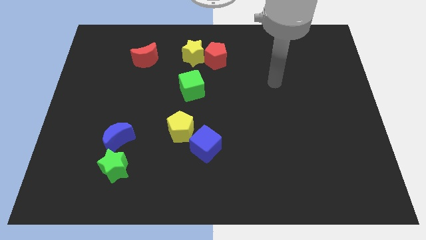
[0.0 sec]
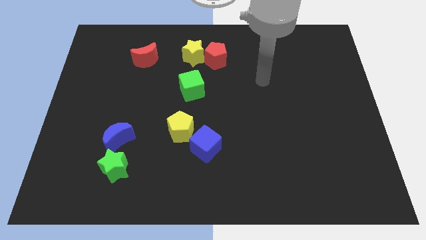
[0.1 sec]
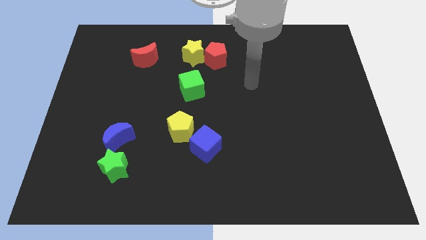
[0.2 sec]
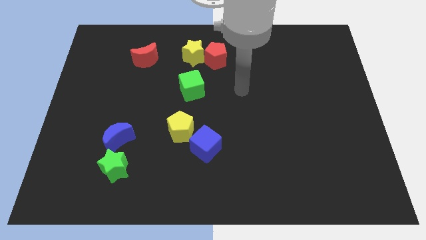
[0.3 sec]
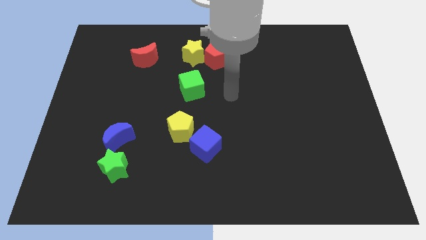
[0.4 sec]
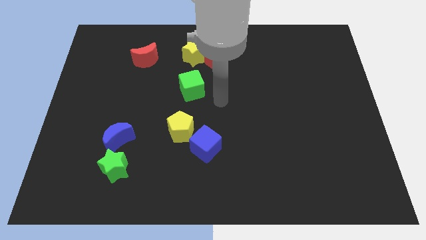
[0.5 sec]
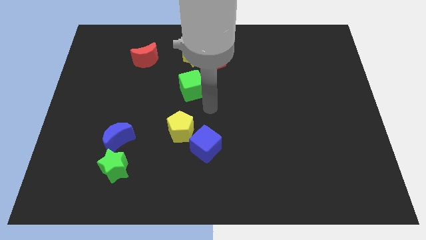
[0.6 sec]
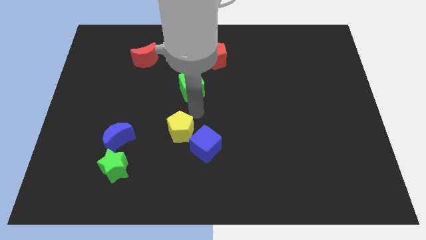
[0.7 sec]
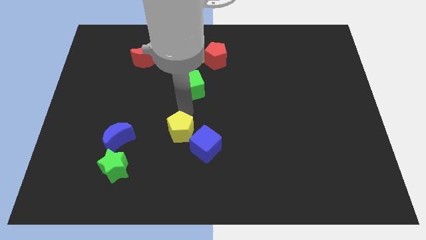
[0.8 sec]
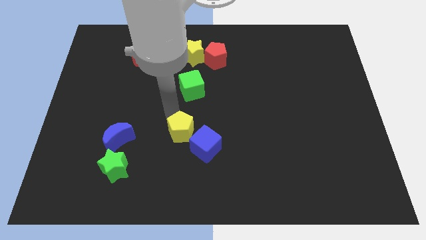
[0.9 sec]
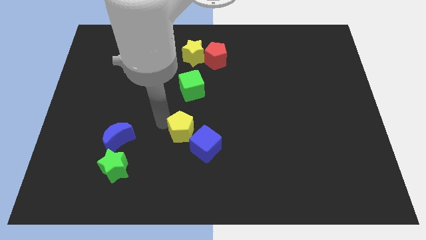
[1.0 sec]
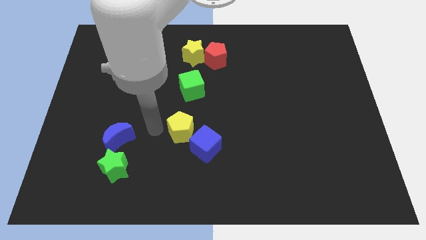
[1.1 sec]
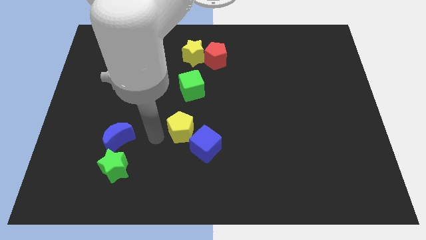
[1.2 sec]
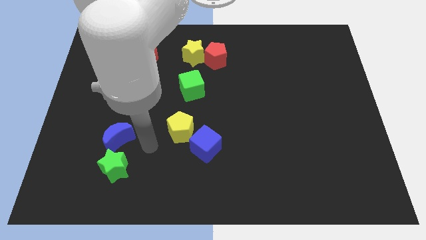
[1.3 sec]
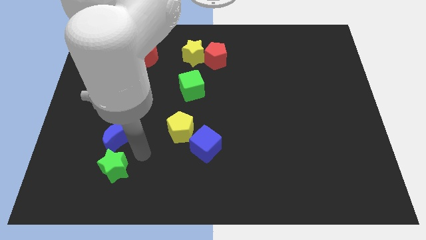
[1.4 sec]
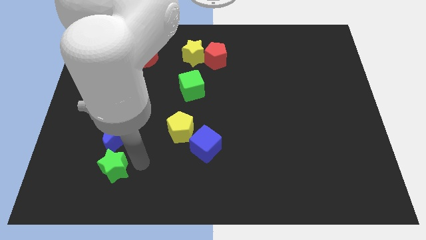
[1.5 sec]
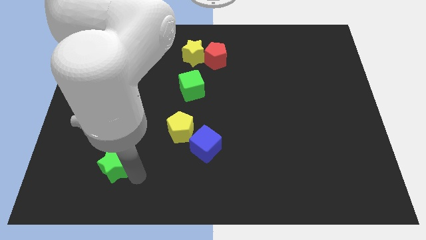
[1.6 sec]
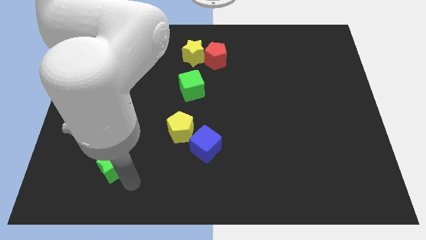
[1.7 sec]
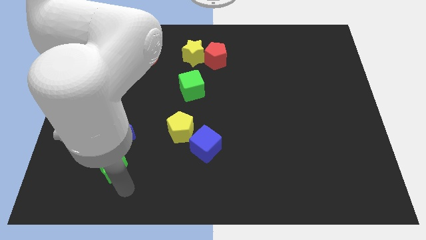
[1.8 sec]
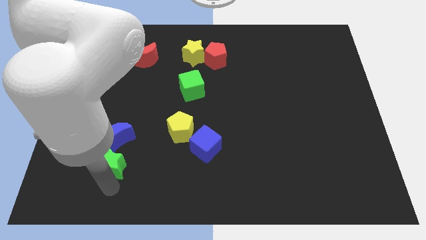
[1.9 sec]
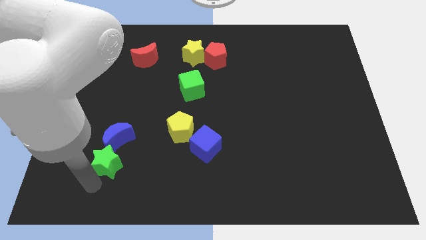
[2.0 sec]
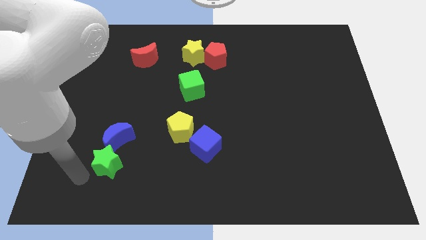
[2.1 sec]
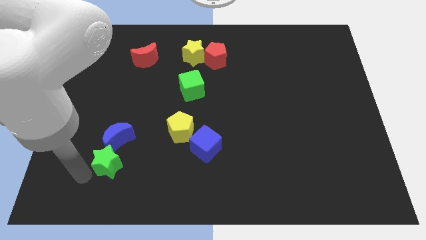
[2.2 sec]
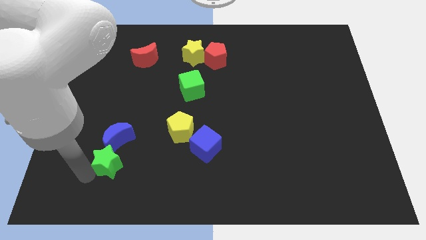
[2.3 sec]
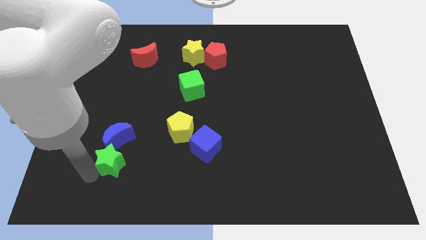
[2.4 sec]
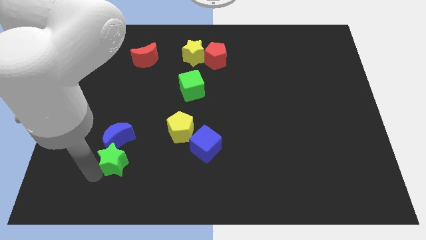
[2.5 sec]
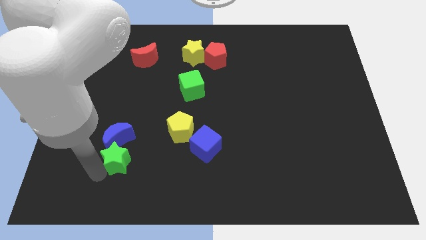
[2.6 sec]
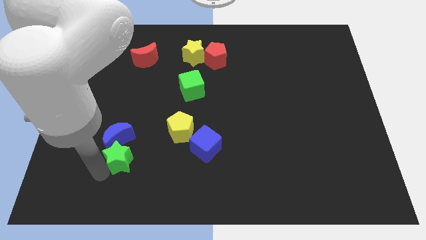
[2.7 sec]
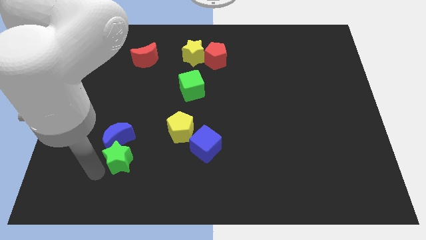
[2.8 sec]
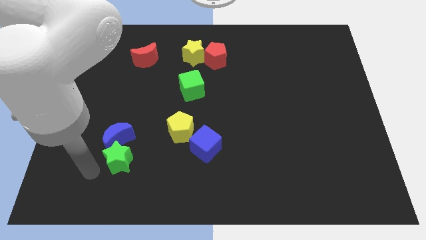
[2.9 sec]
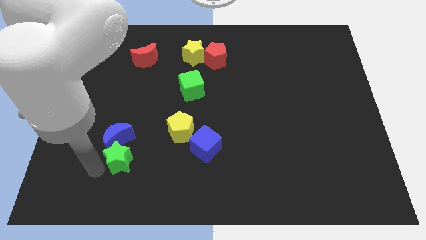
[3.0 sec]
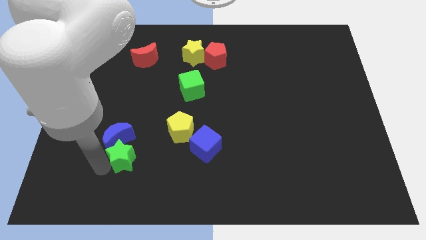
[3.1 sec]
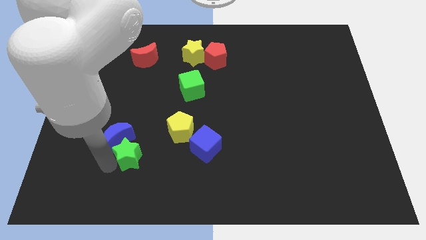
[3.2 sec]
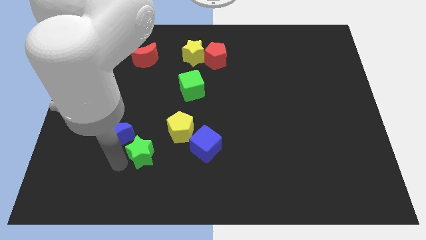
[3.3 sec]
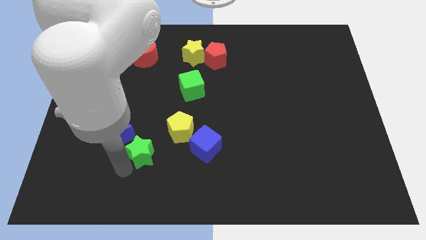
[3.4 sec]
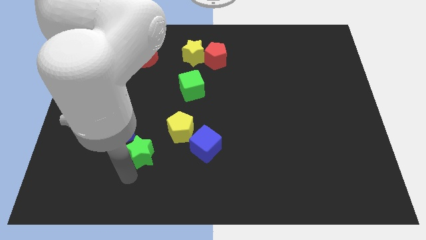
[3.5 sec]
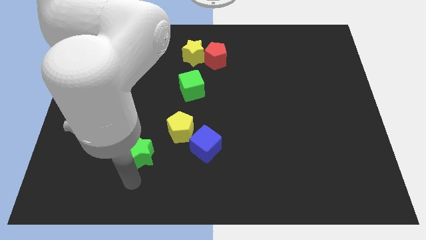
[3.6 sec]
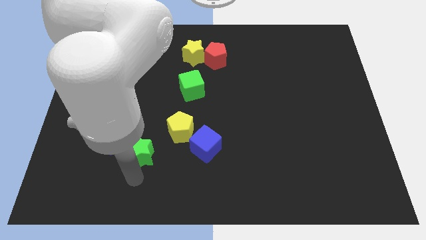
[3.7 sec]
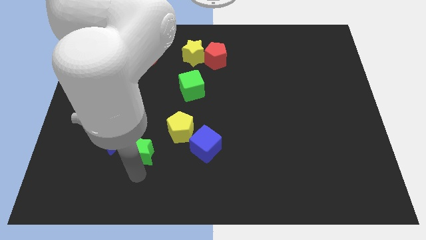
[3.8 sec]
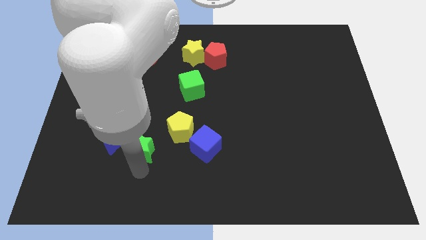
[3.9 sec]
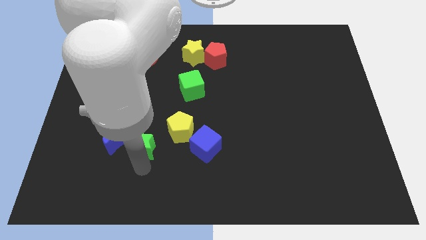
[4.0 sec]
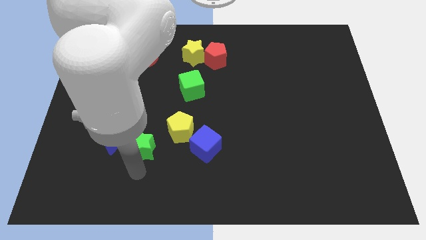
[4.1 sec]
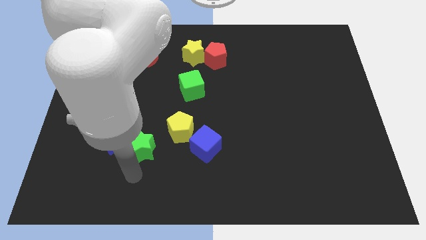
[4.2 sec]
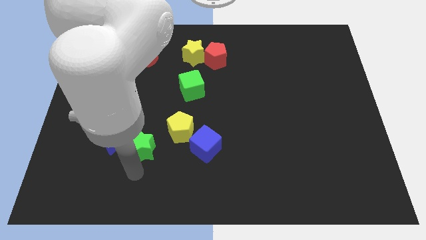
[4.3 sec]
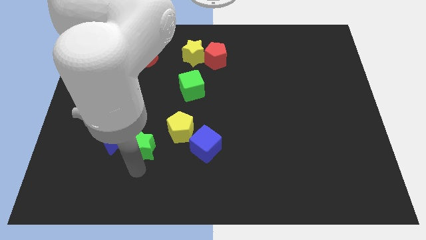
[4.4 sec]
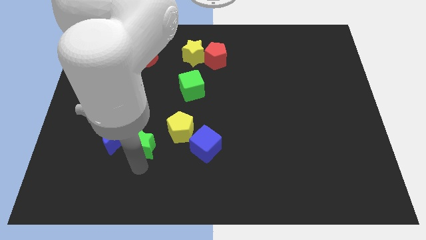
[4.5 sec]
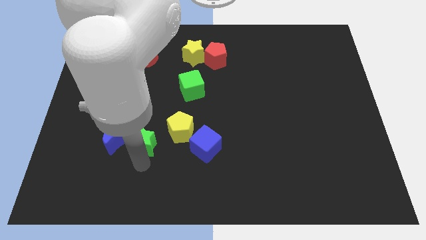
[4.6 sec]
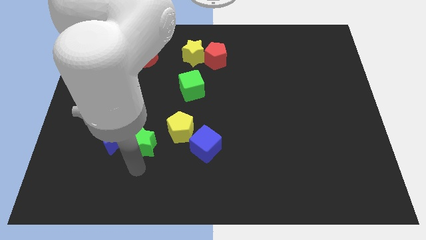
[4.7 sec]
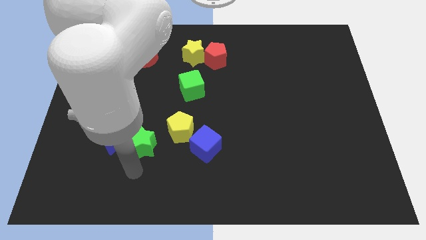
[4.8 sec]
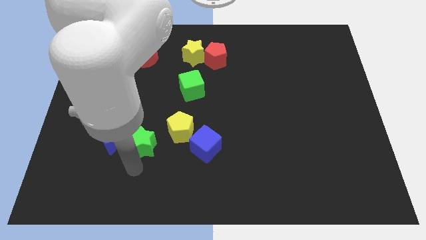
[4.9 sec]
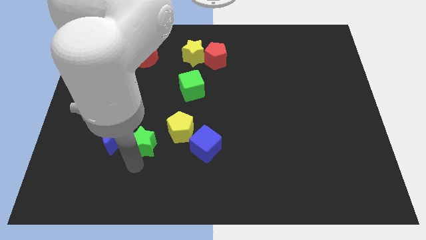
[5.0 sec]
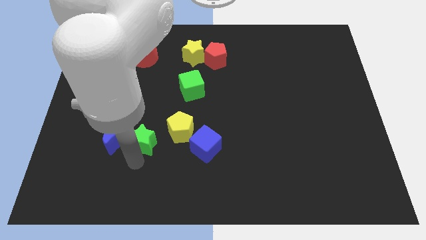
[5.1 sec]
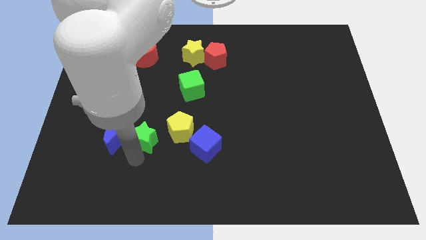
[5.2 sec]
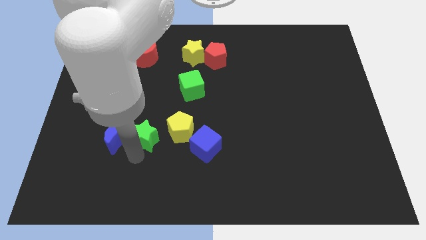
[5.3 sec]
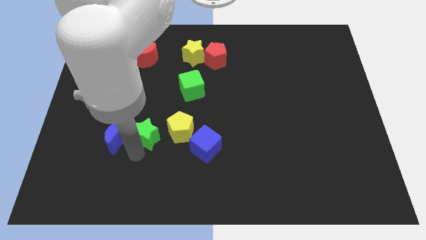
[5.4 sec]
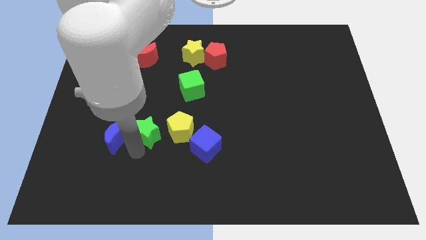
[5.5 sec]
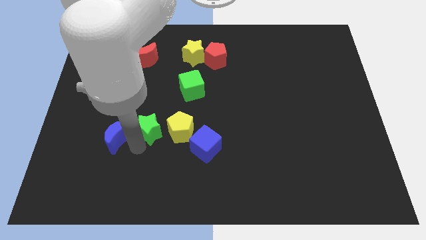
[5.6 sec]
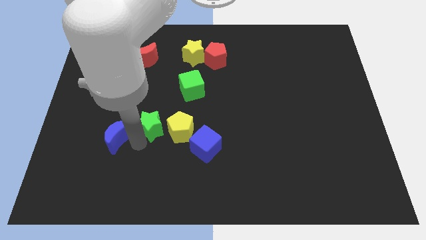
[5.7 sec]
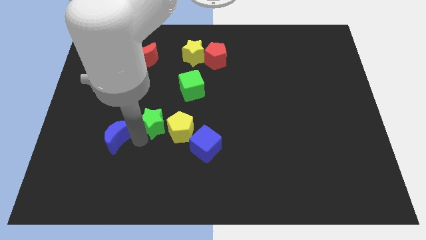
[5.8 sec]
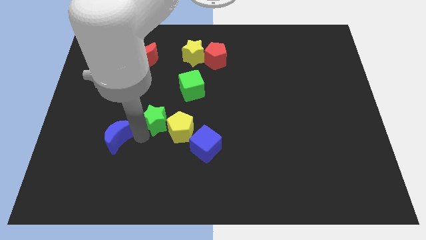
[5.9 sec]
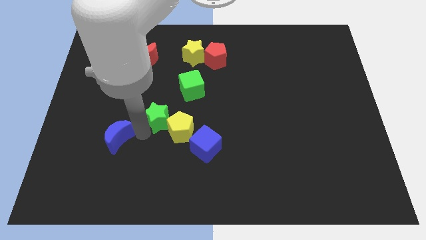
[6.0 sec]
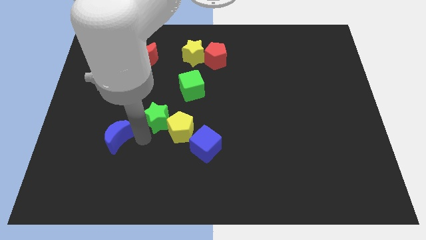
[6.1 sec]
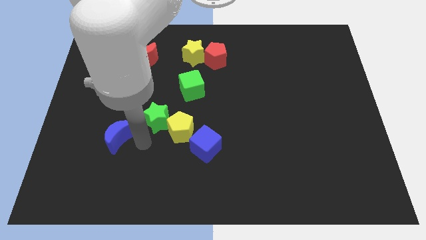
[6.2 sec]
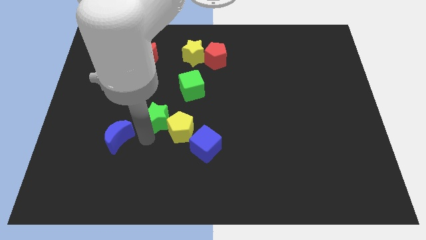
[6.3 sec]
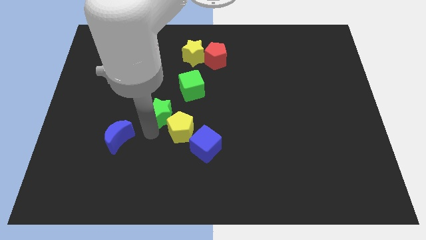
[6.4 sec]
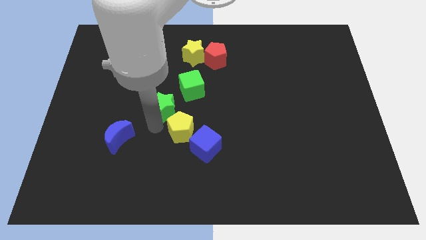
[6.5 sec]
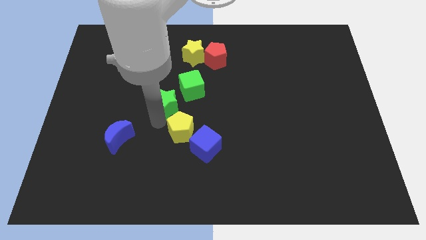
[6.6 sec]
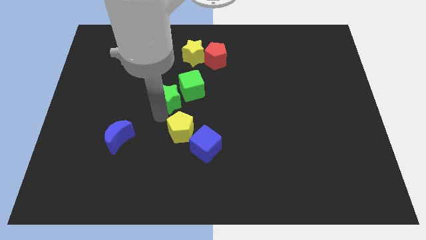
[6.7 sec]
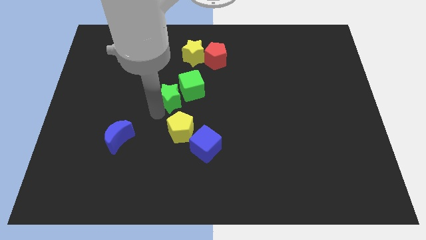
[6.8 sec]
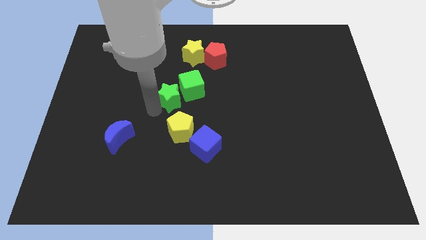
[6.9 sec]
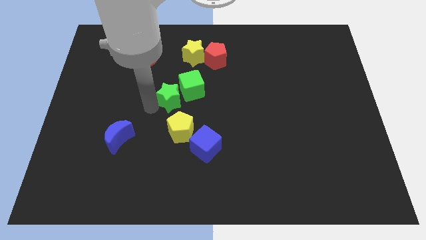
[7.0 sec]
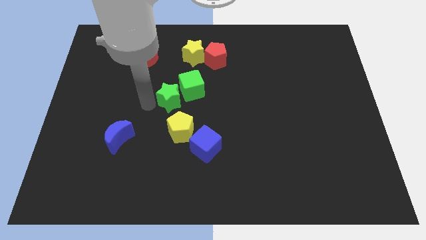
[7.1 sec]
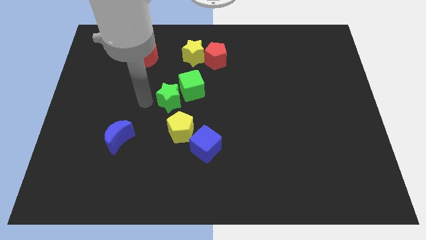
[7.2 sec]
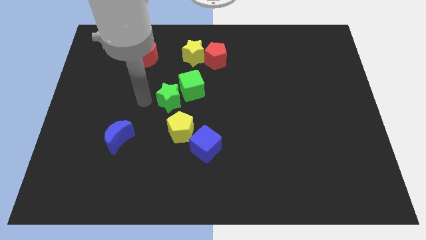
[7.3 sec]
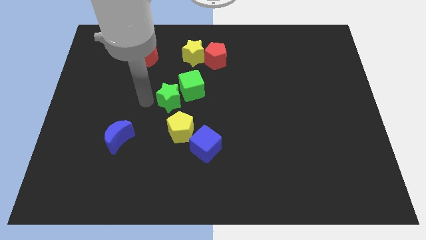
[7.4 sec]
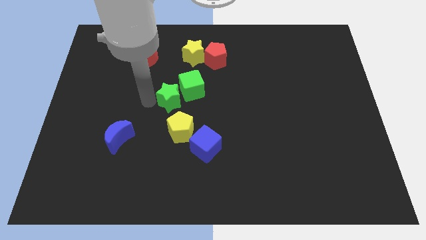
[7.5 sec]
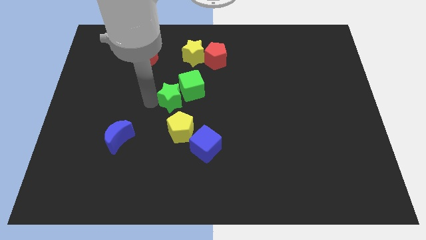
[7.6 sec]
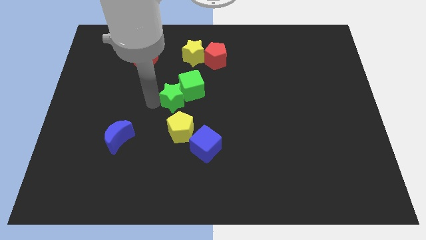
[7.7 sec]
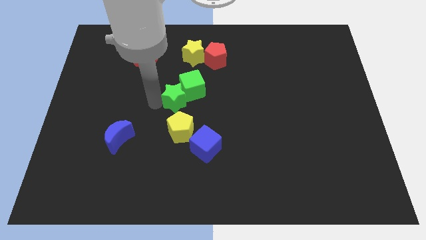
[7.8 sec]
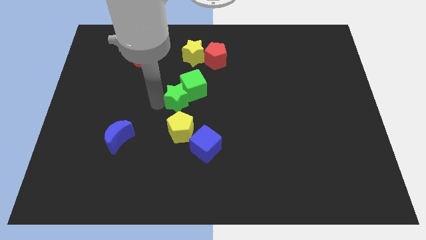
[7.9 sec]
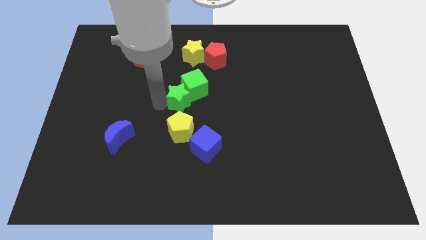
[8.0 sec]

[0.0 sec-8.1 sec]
push the green star to the bottom side of the yellow star
